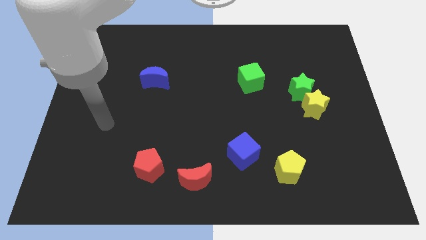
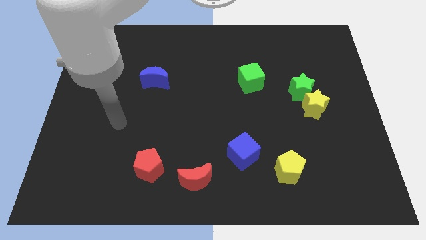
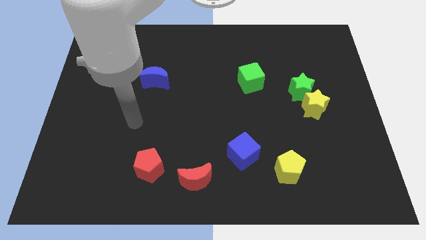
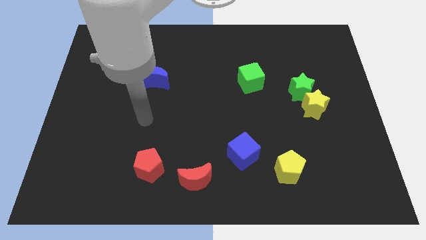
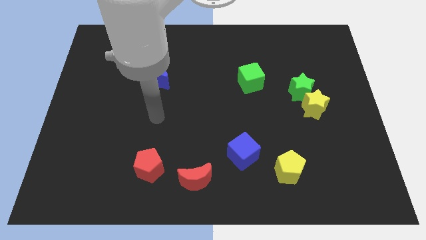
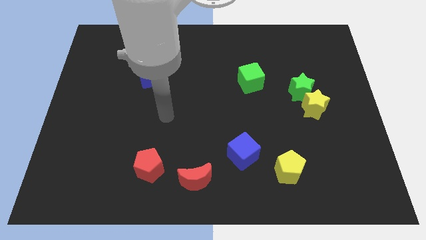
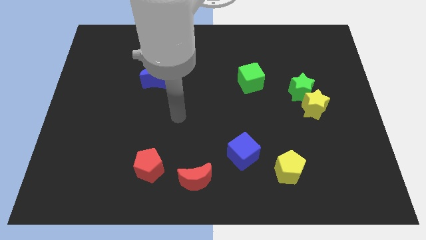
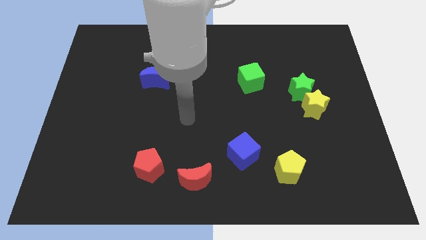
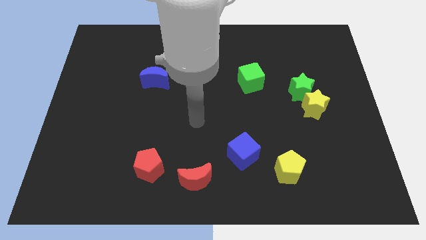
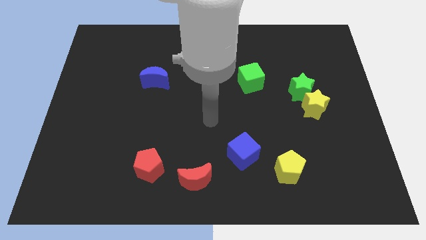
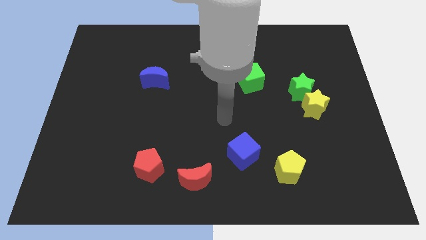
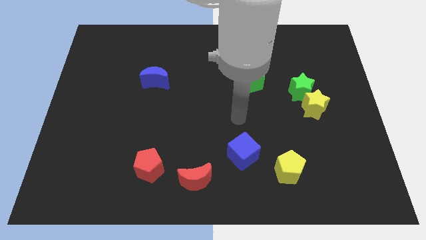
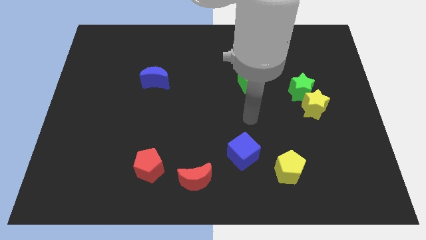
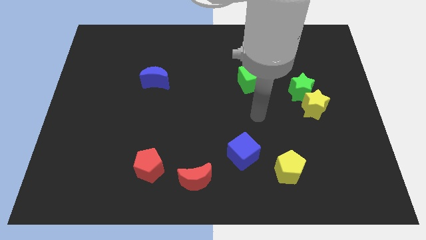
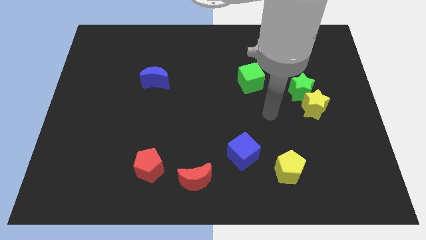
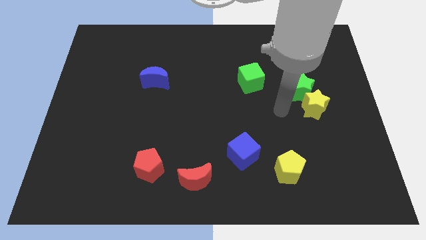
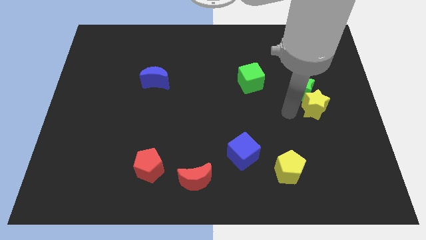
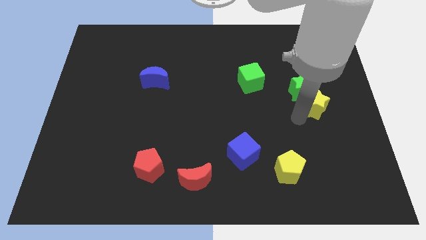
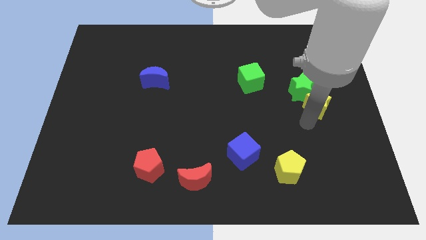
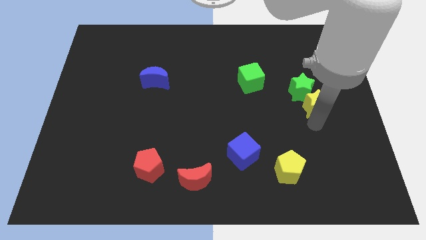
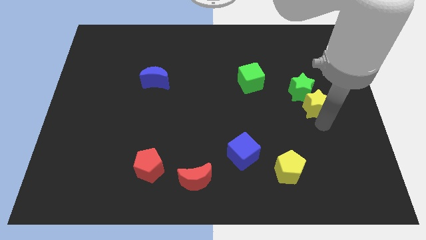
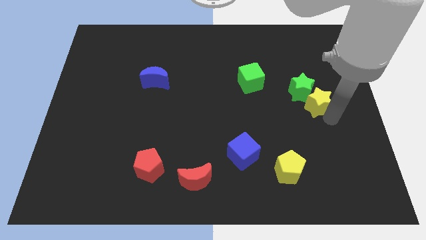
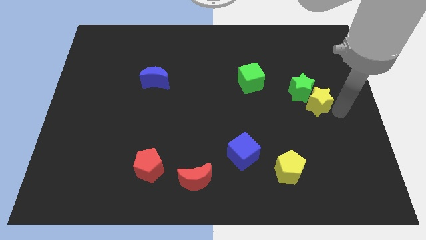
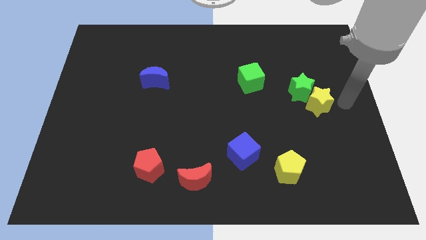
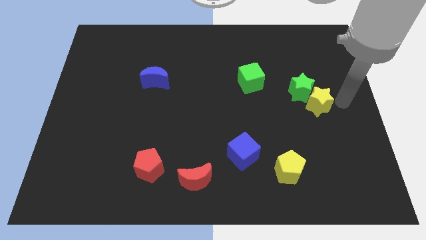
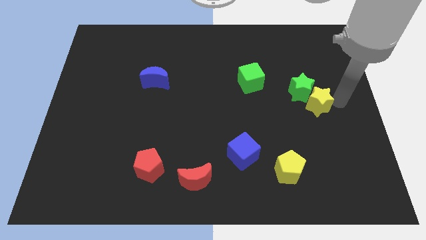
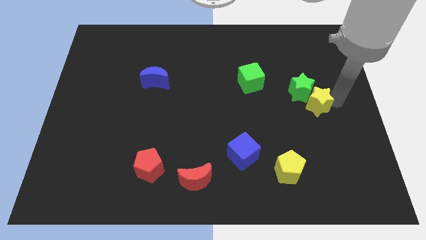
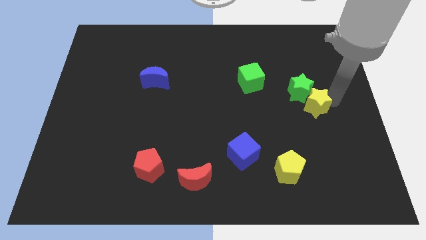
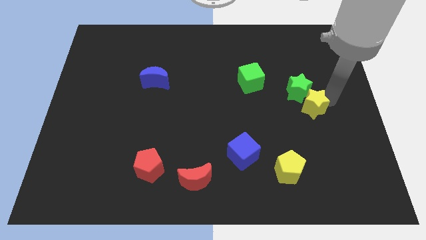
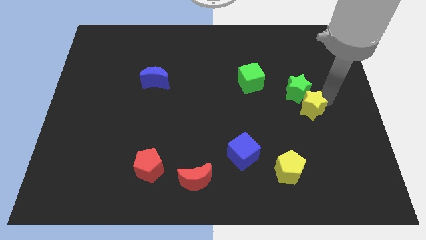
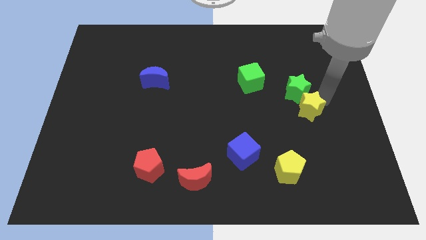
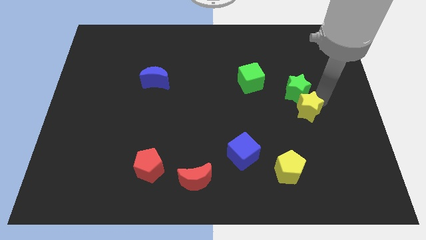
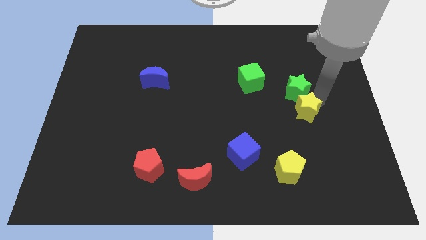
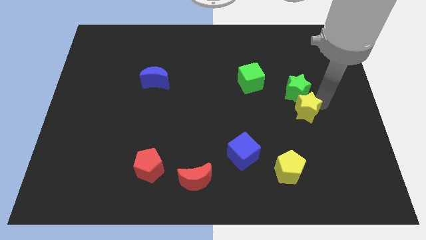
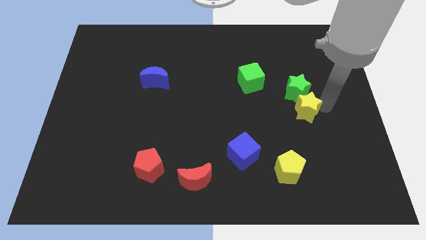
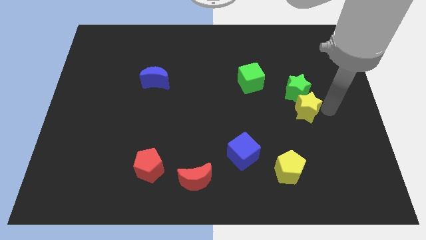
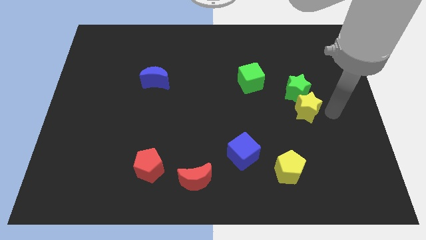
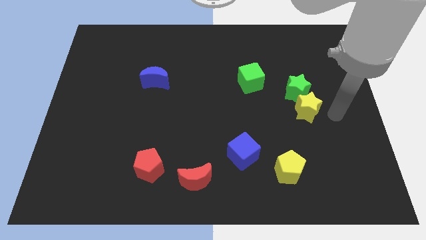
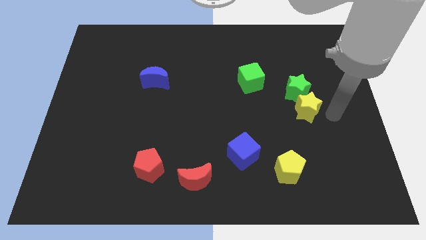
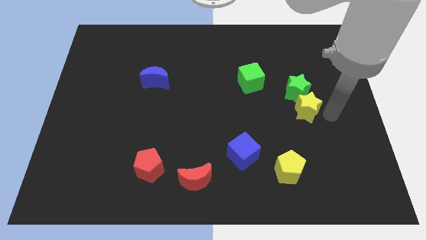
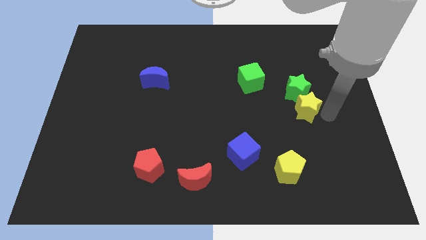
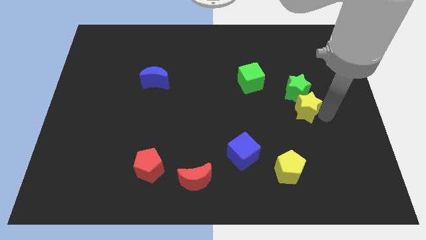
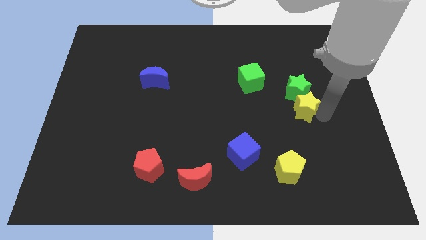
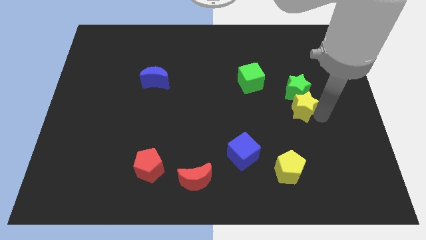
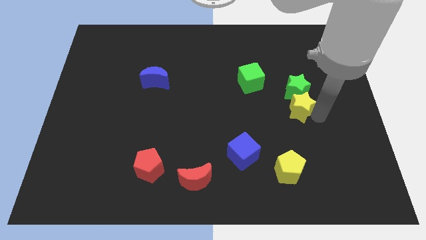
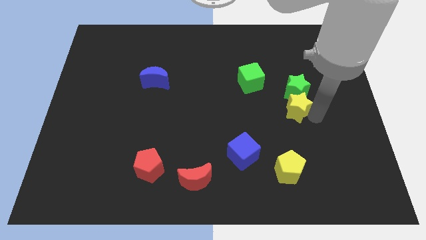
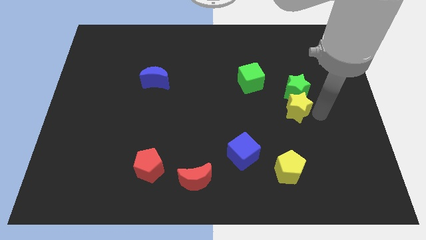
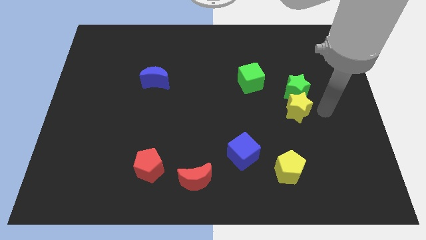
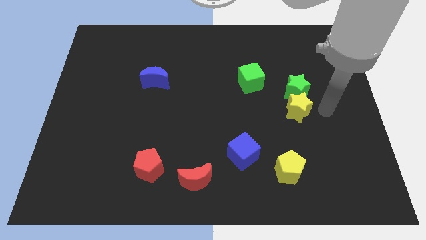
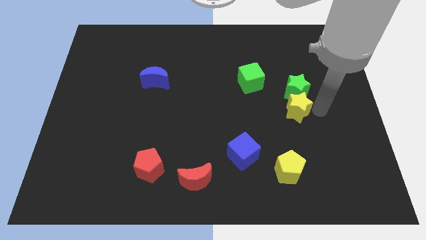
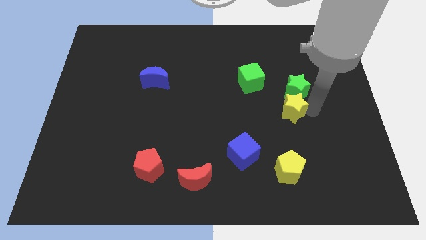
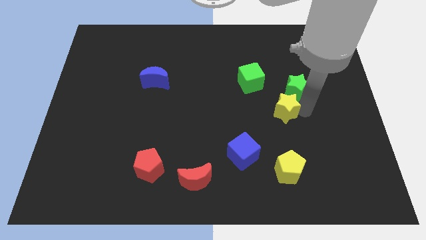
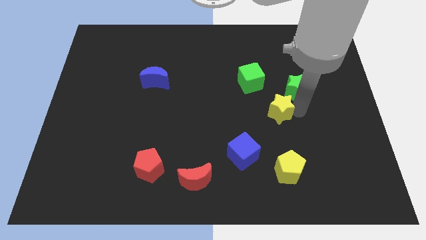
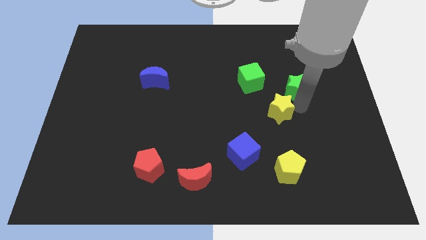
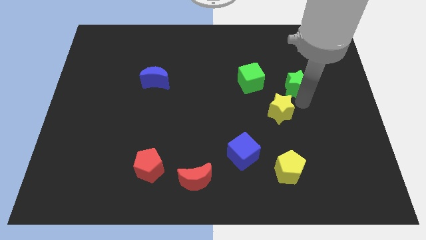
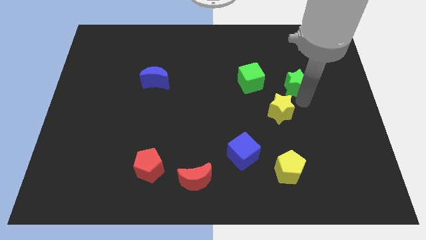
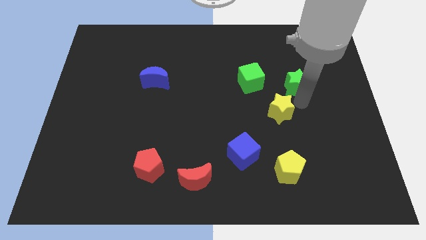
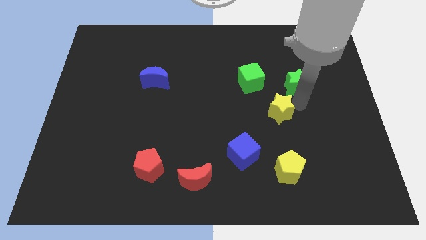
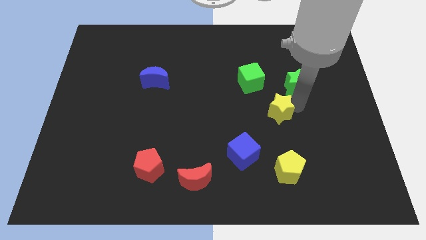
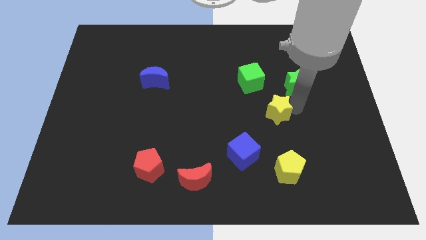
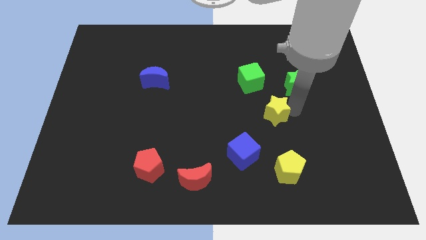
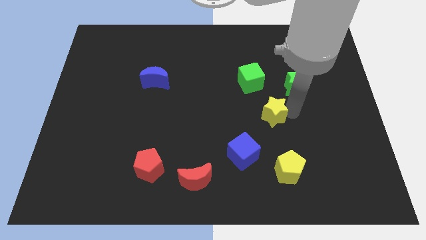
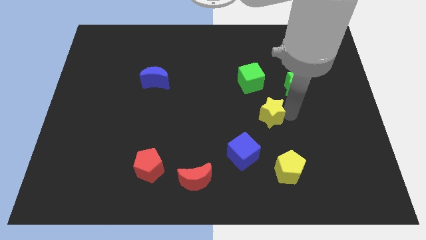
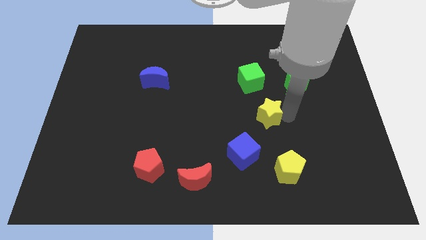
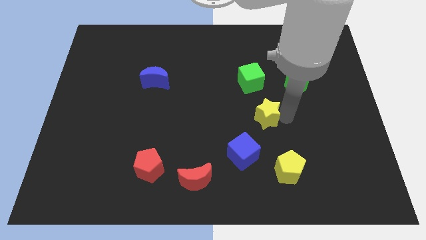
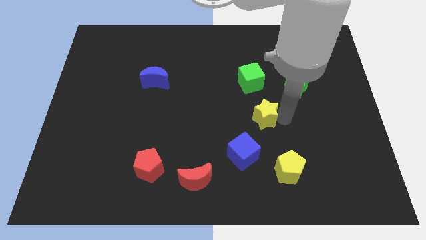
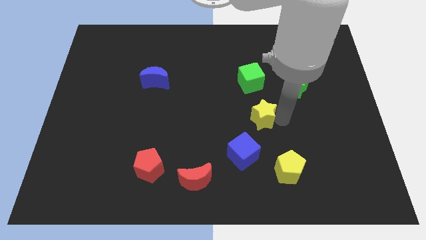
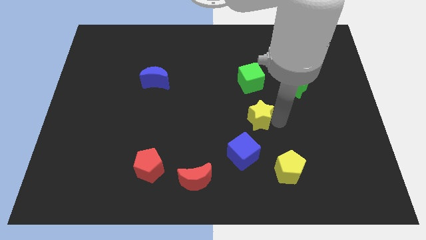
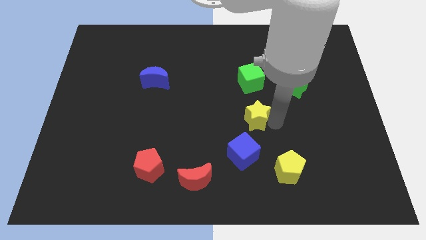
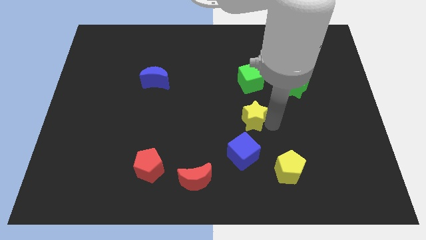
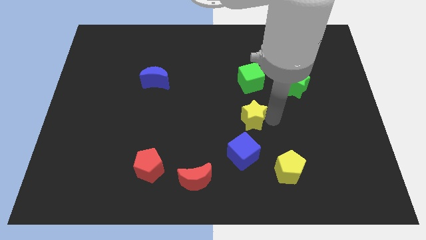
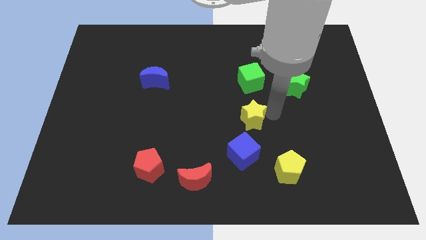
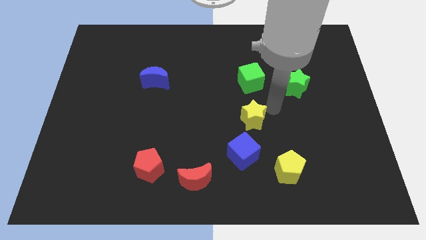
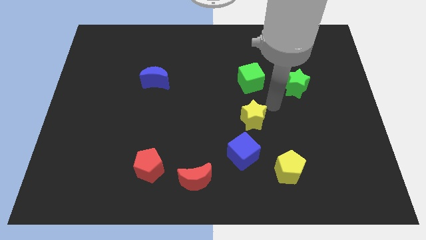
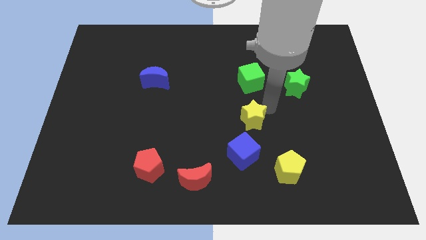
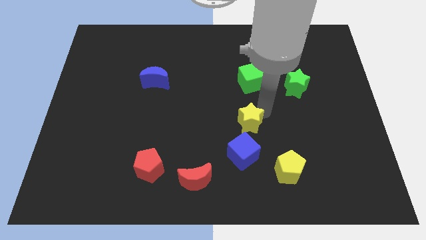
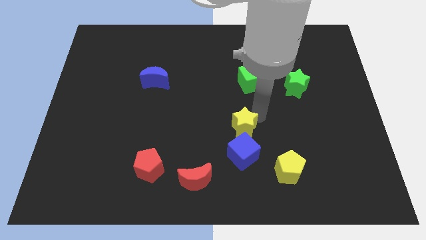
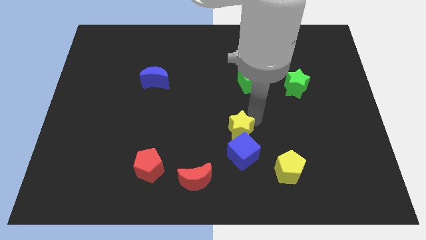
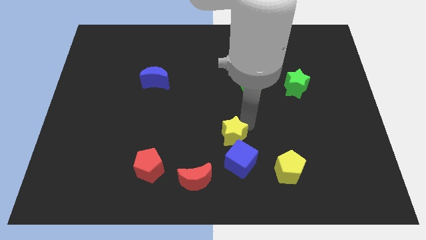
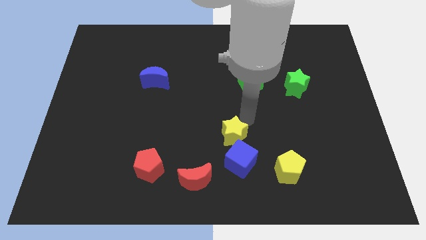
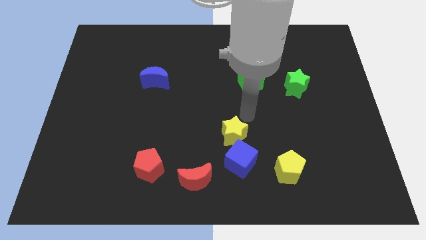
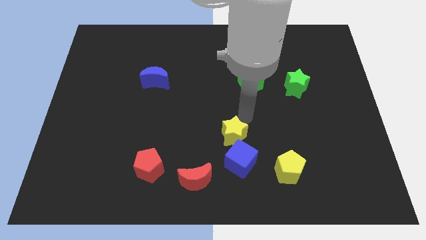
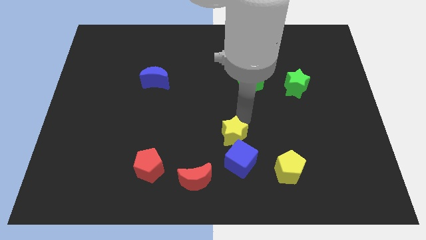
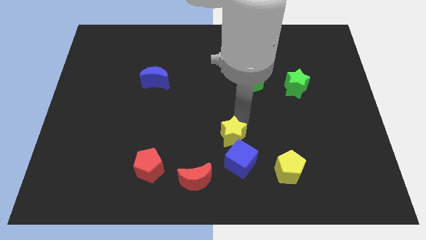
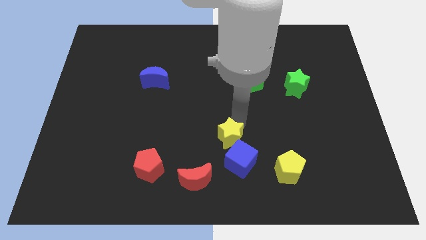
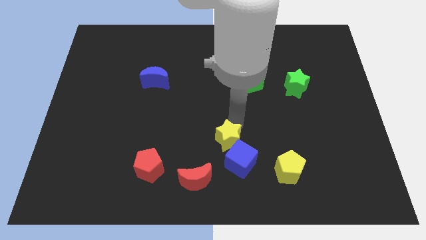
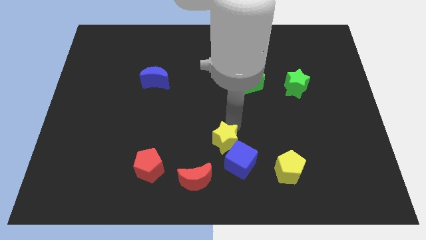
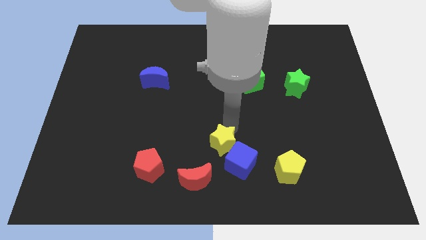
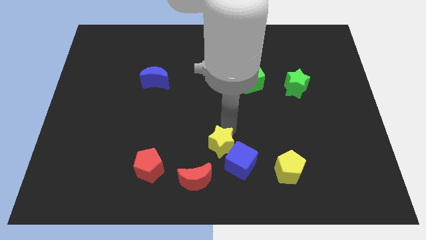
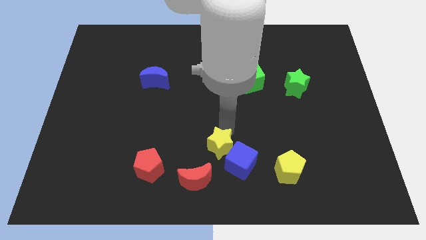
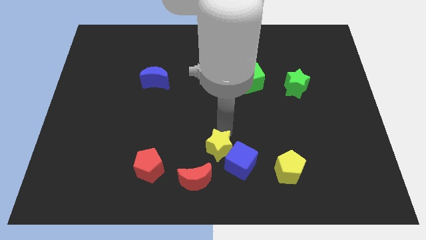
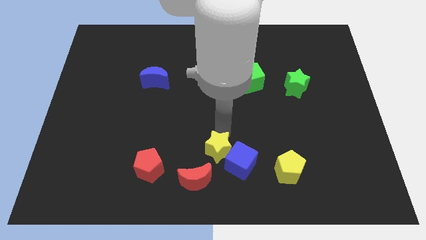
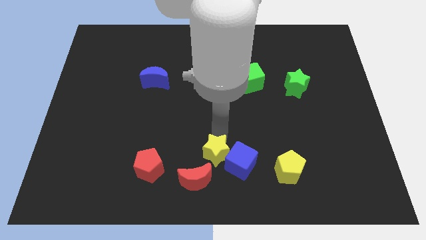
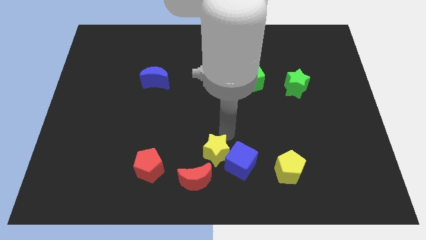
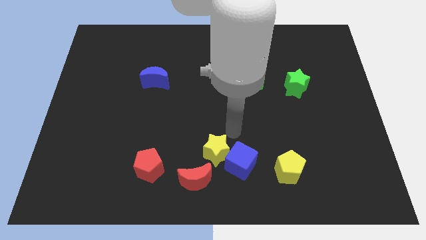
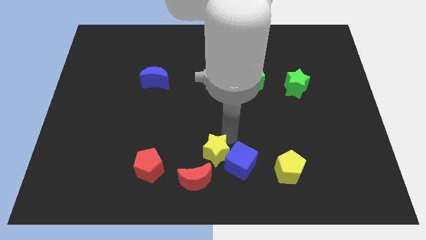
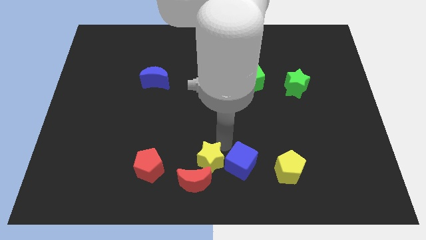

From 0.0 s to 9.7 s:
push the yellow star towards the red moon
